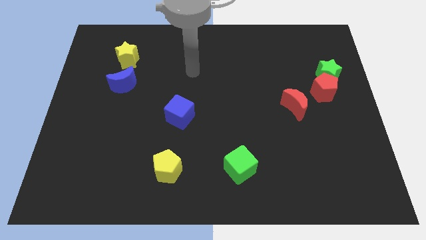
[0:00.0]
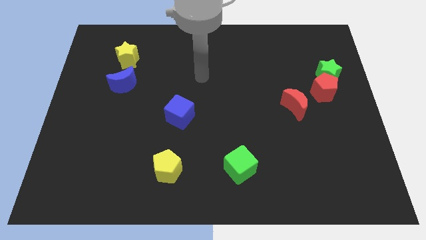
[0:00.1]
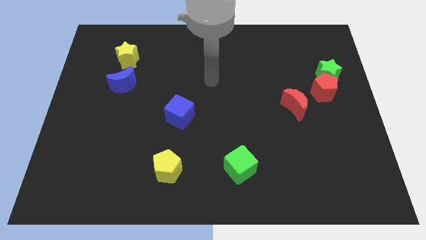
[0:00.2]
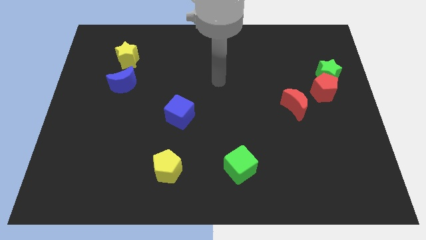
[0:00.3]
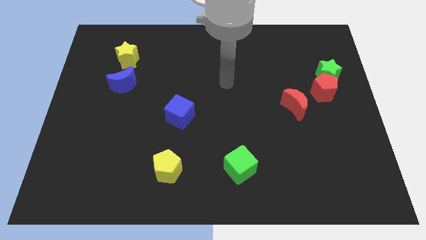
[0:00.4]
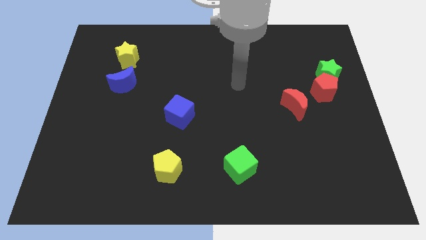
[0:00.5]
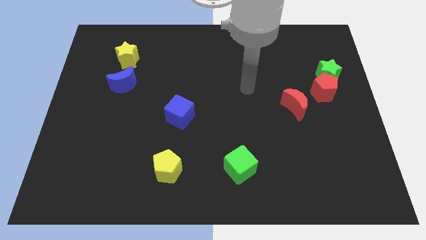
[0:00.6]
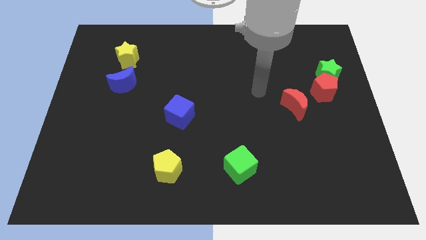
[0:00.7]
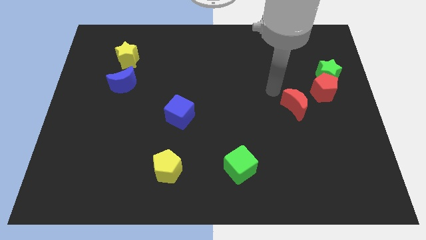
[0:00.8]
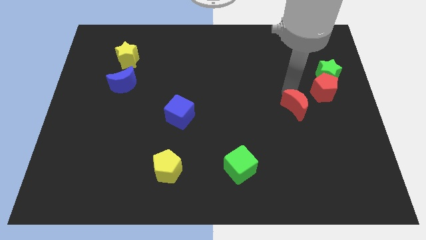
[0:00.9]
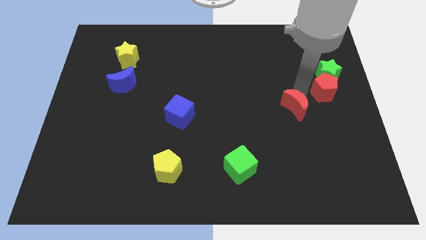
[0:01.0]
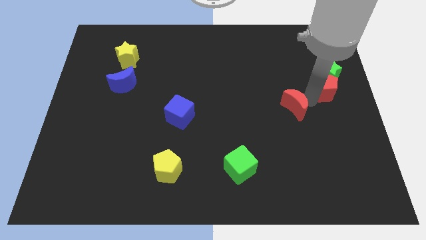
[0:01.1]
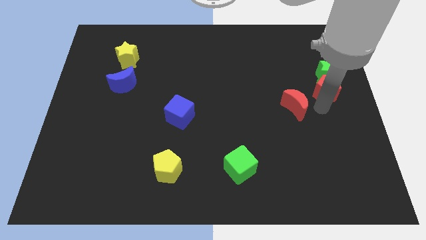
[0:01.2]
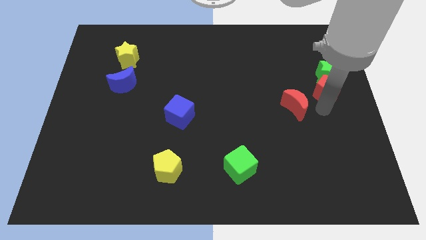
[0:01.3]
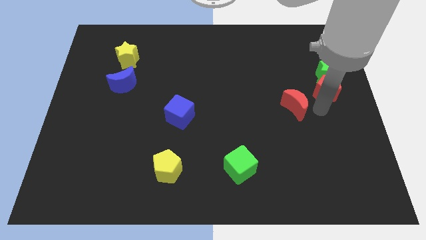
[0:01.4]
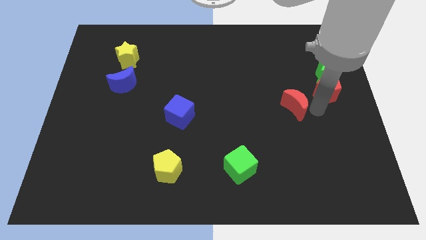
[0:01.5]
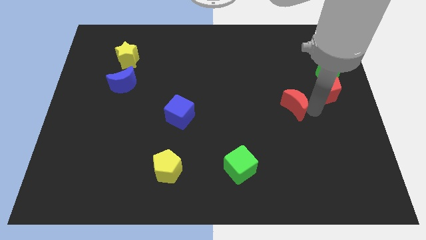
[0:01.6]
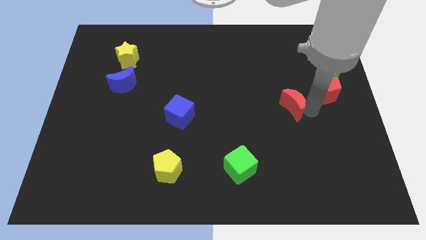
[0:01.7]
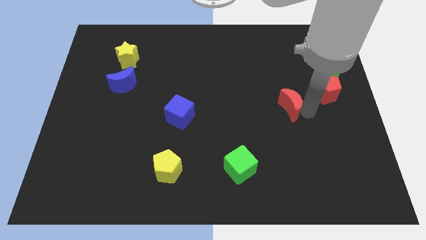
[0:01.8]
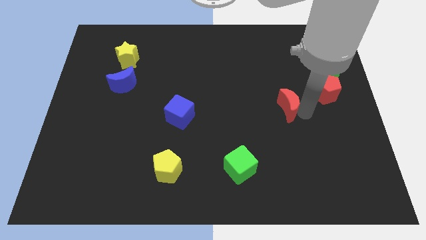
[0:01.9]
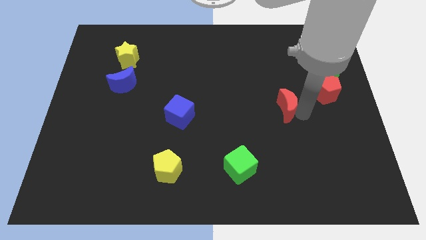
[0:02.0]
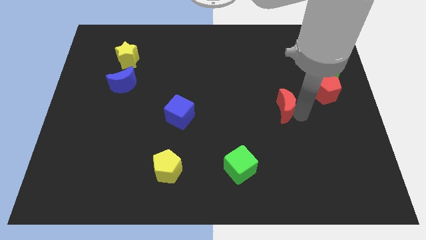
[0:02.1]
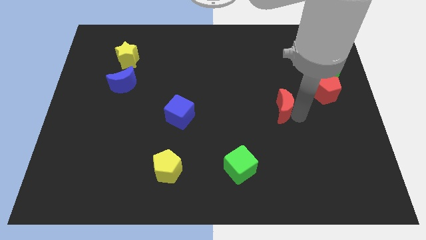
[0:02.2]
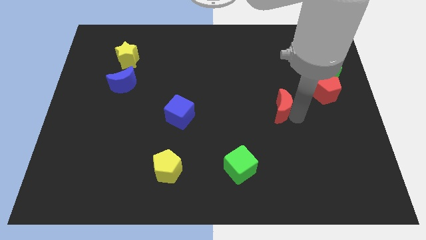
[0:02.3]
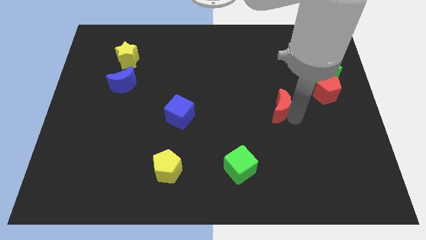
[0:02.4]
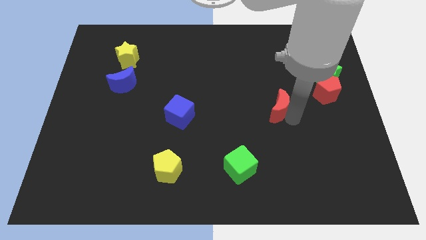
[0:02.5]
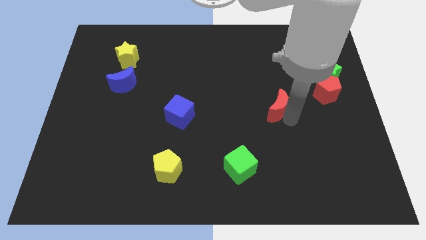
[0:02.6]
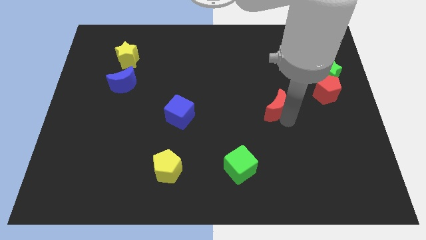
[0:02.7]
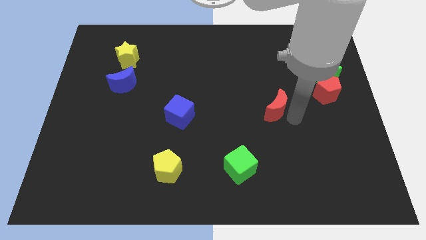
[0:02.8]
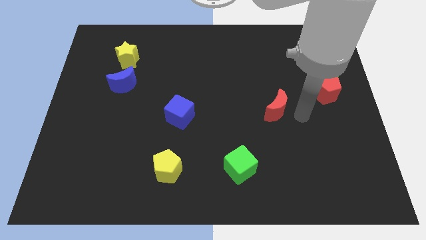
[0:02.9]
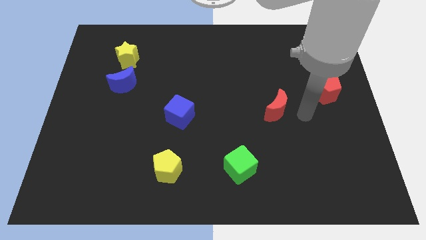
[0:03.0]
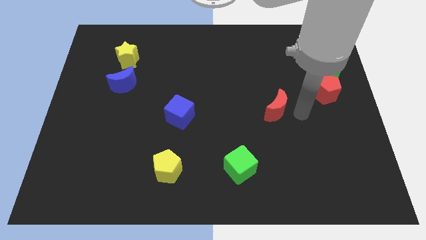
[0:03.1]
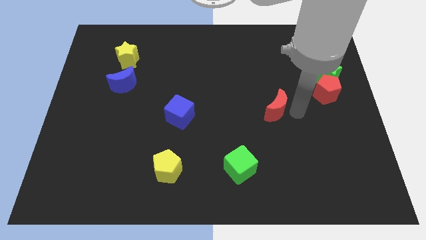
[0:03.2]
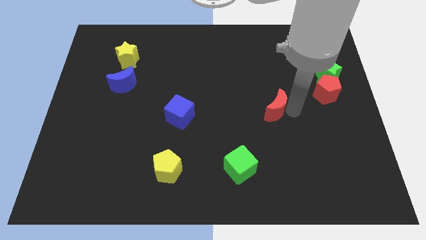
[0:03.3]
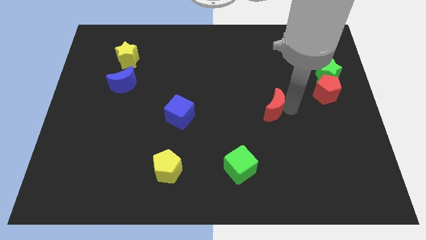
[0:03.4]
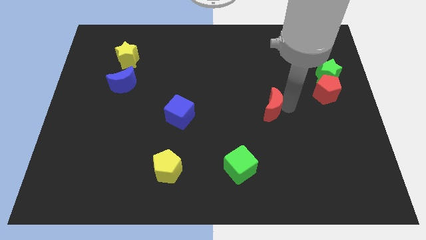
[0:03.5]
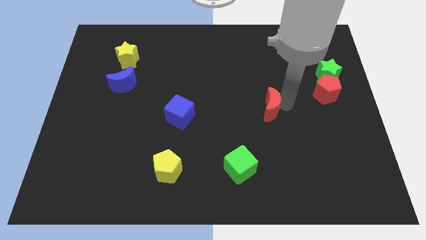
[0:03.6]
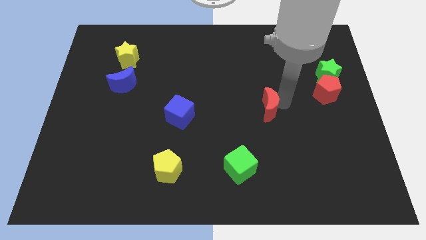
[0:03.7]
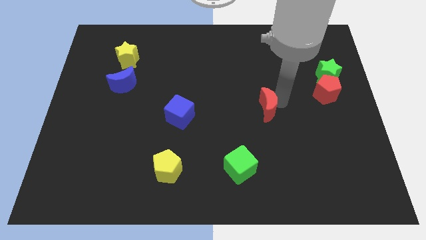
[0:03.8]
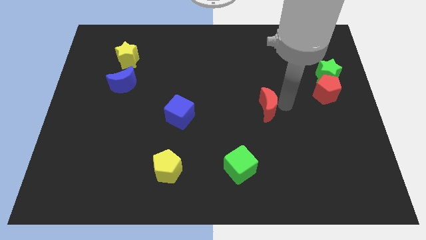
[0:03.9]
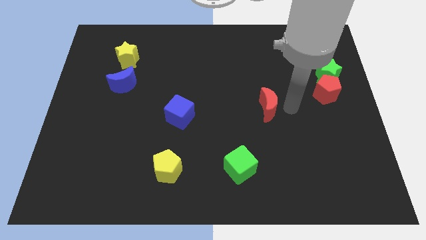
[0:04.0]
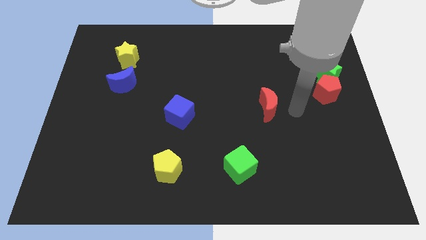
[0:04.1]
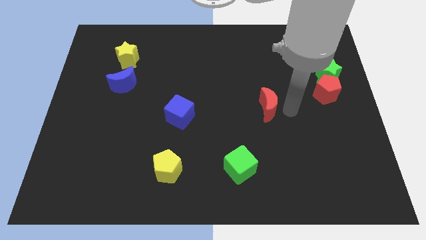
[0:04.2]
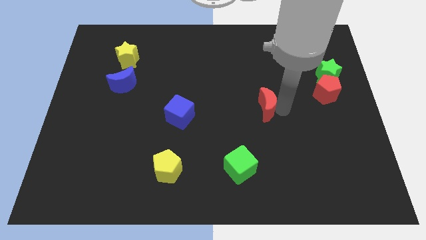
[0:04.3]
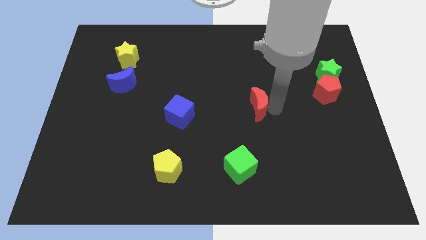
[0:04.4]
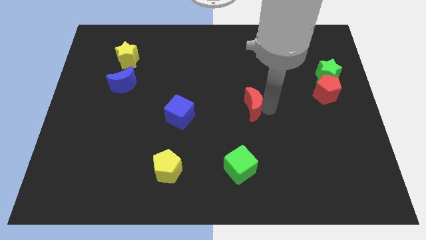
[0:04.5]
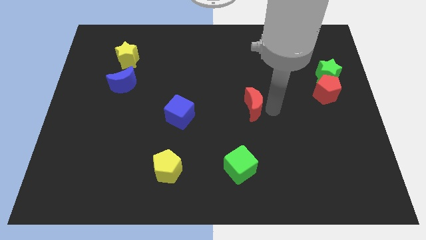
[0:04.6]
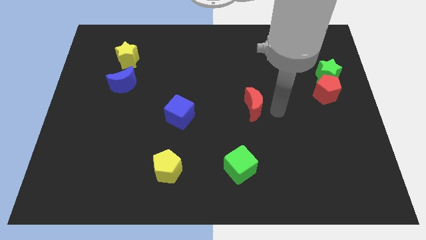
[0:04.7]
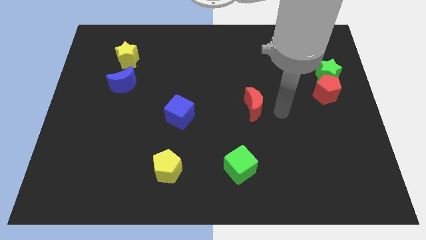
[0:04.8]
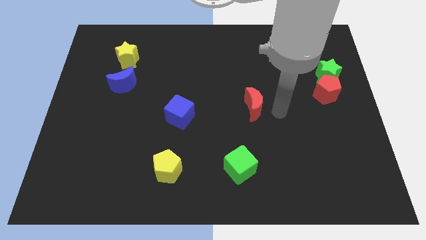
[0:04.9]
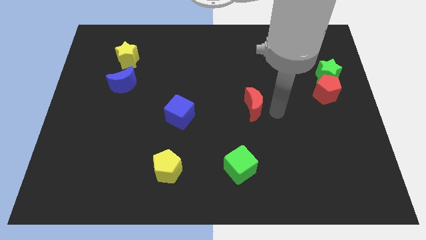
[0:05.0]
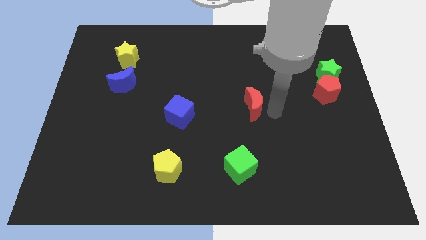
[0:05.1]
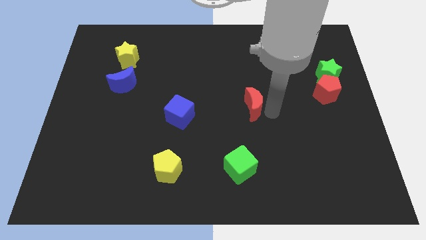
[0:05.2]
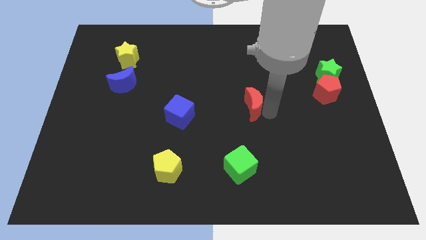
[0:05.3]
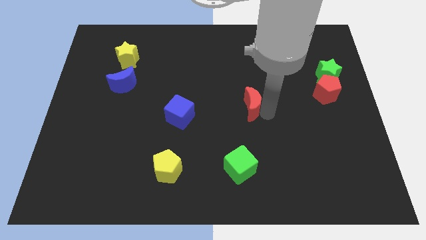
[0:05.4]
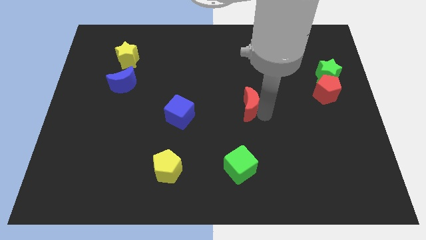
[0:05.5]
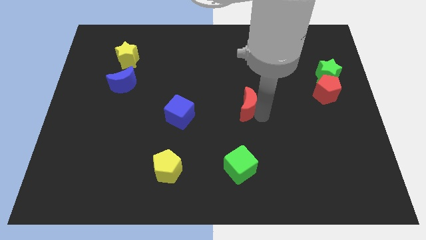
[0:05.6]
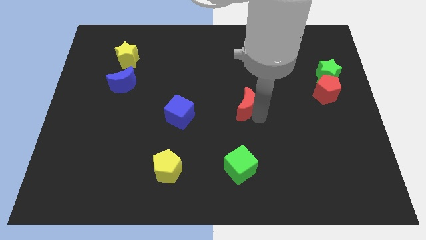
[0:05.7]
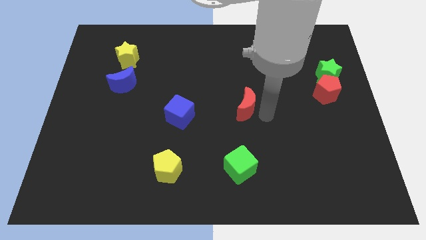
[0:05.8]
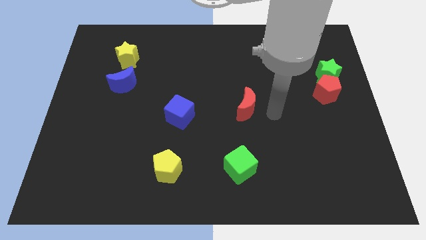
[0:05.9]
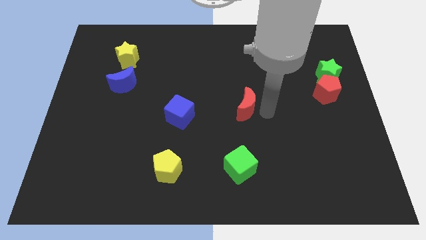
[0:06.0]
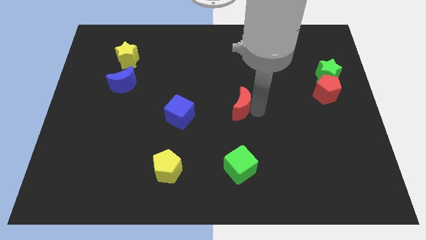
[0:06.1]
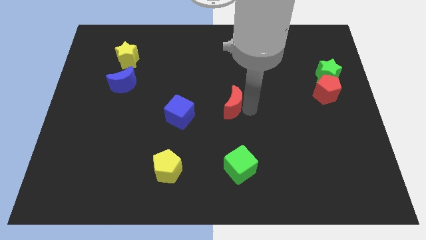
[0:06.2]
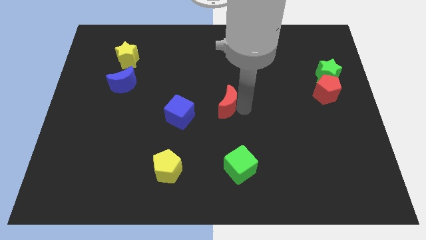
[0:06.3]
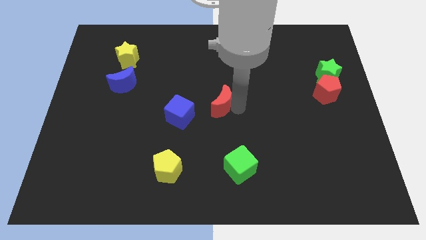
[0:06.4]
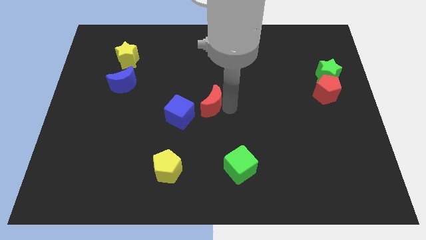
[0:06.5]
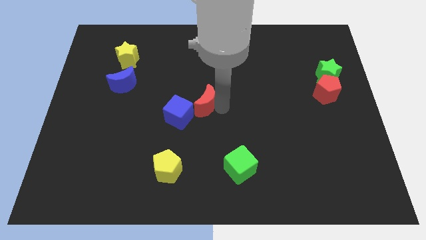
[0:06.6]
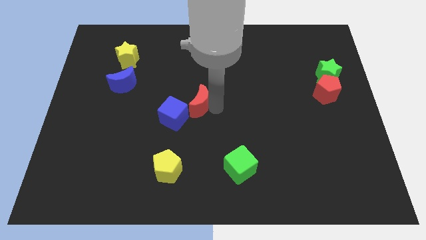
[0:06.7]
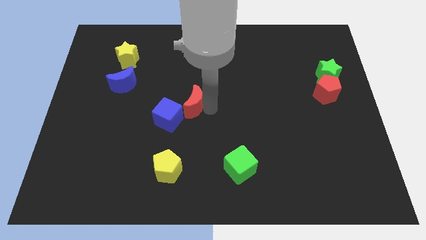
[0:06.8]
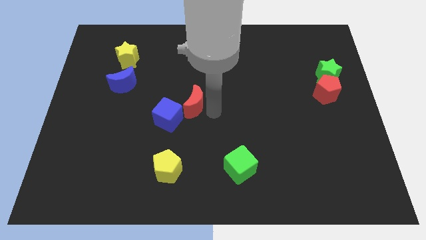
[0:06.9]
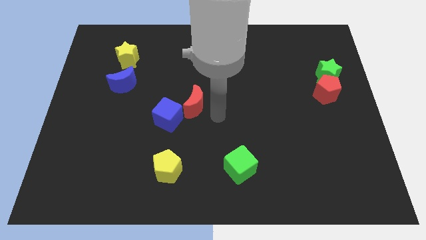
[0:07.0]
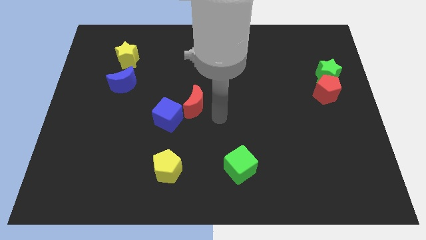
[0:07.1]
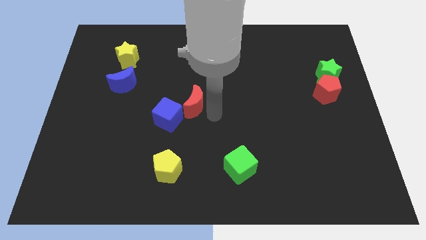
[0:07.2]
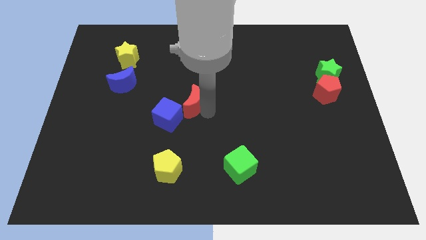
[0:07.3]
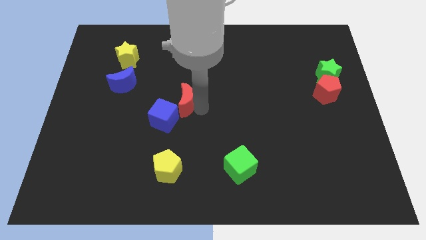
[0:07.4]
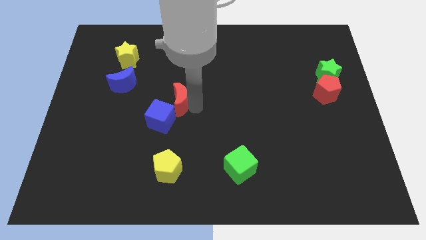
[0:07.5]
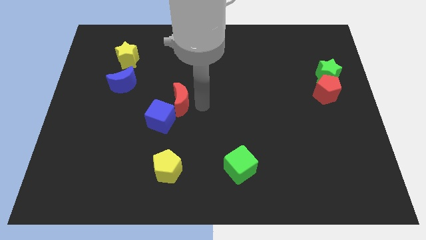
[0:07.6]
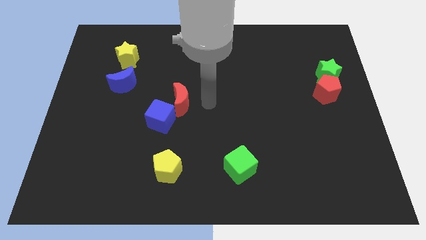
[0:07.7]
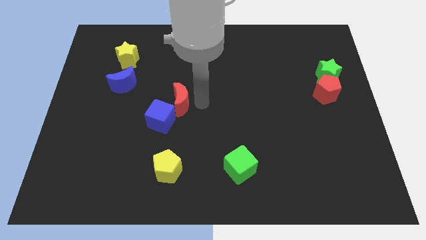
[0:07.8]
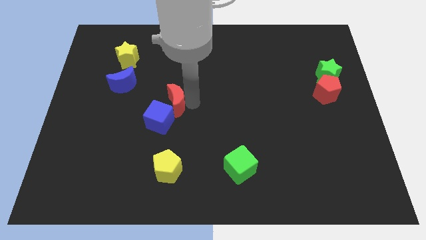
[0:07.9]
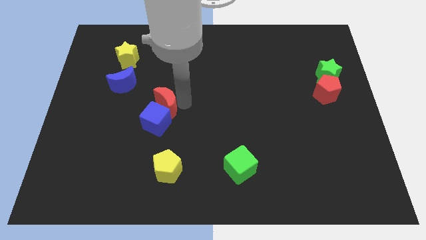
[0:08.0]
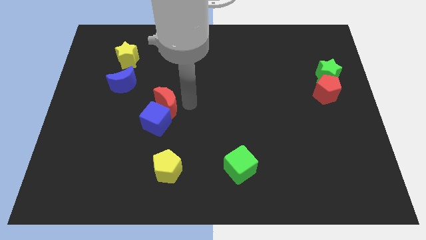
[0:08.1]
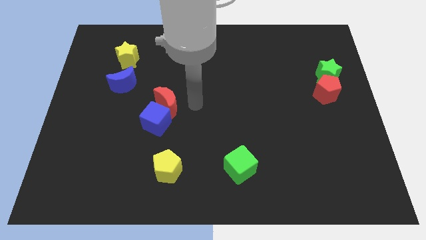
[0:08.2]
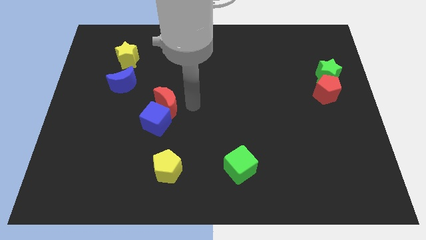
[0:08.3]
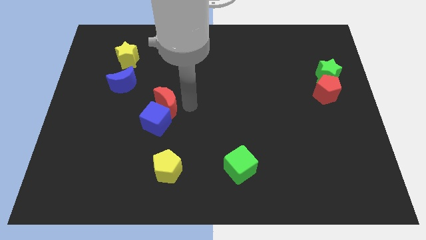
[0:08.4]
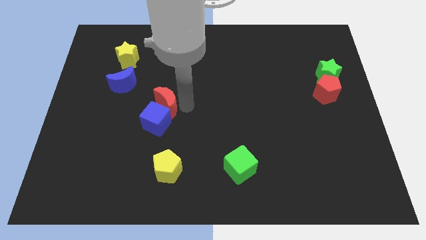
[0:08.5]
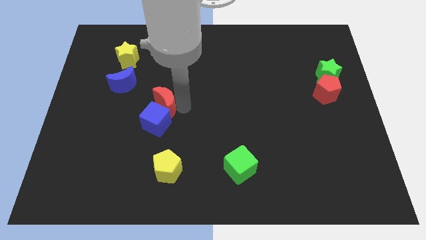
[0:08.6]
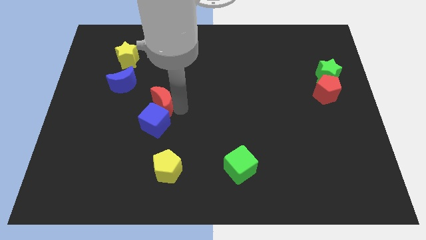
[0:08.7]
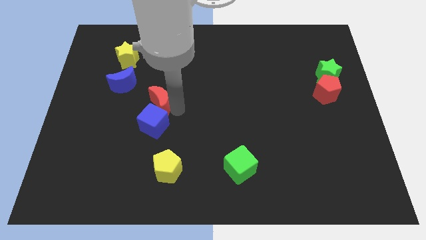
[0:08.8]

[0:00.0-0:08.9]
push the red moon to the top left side of the blue cube
